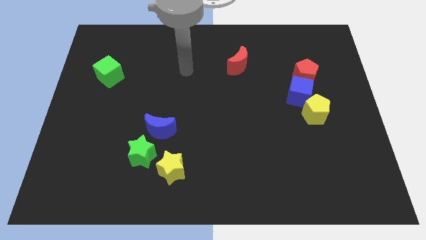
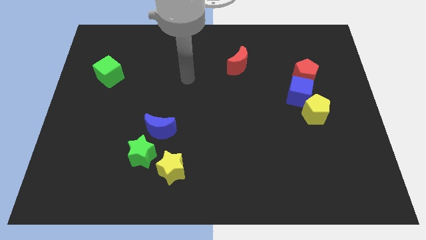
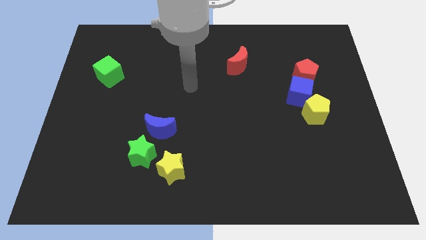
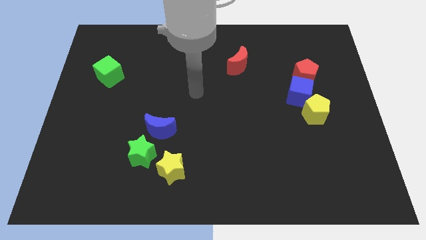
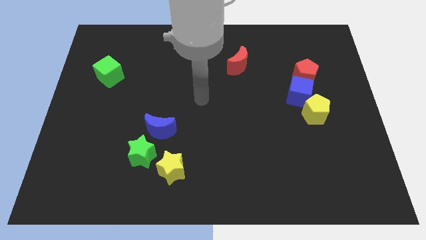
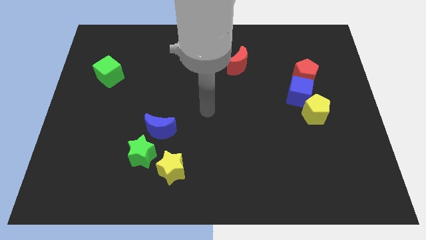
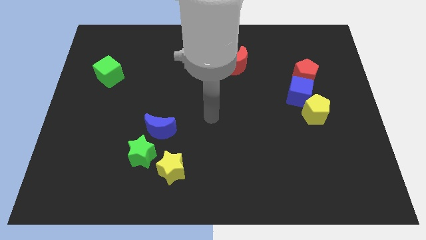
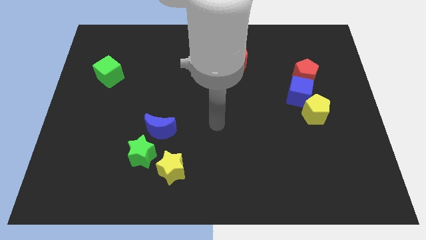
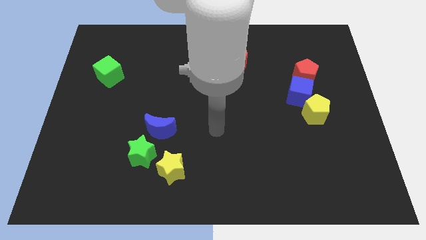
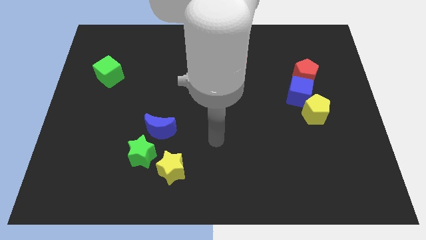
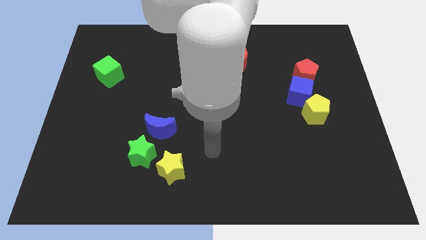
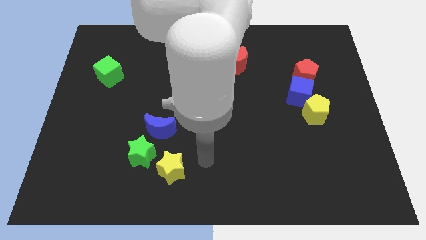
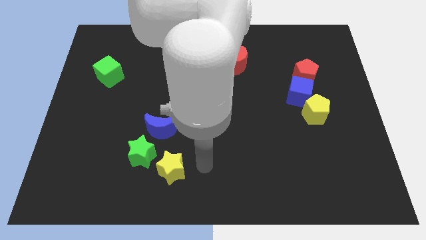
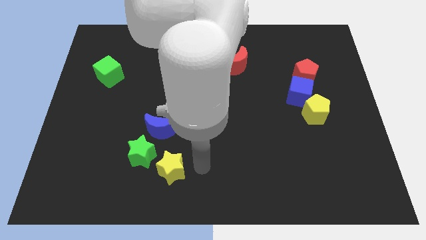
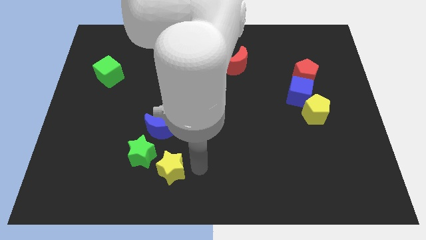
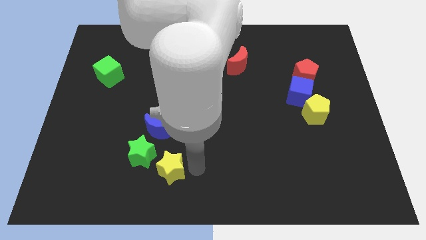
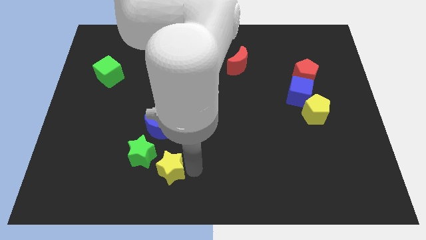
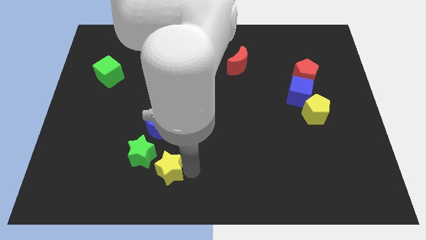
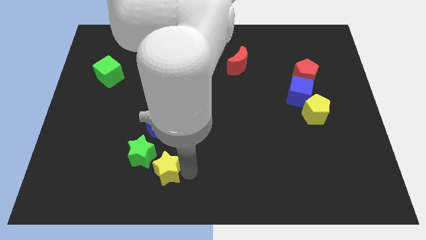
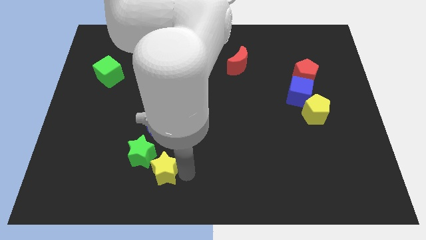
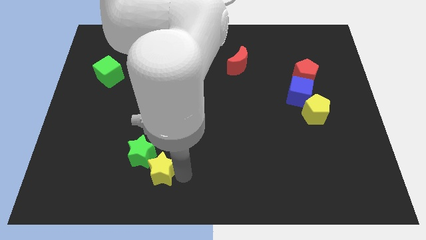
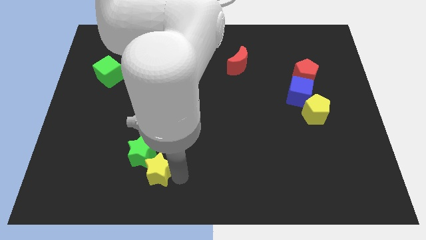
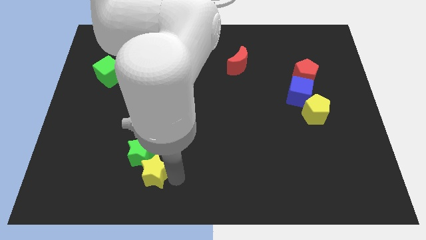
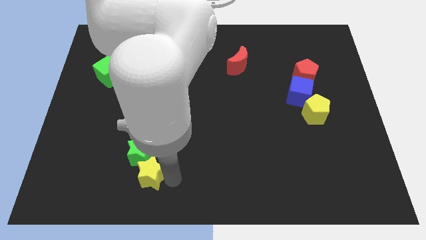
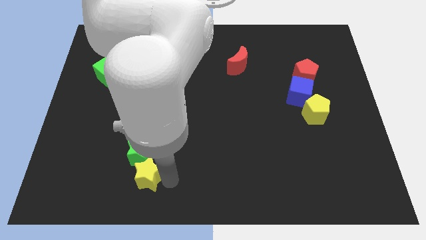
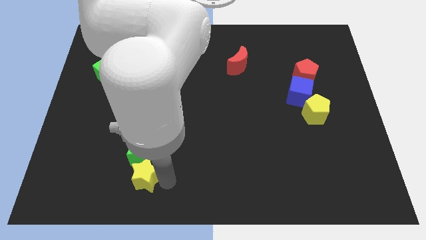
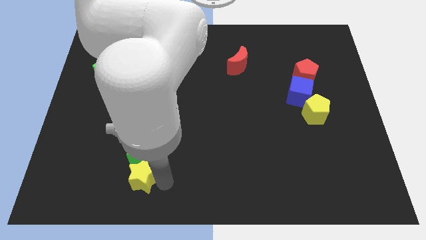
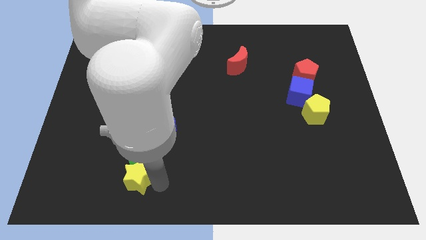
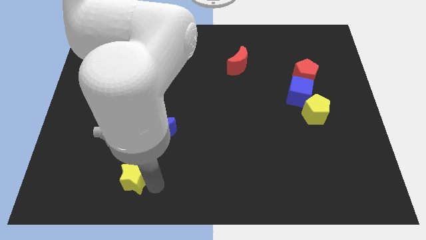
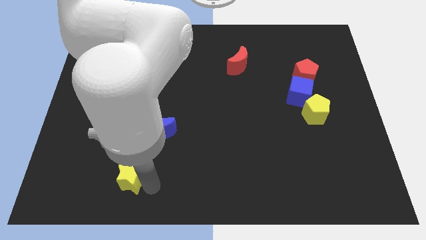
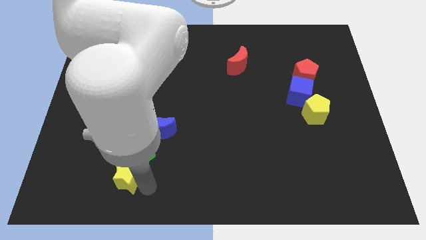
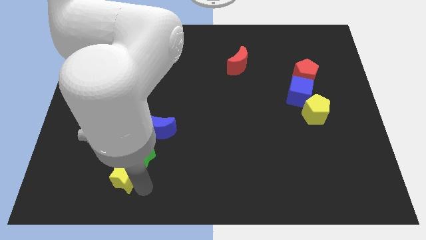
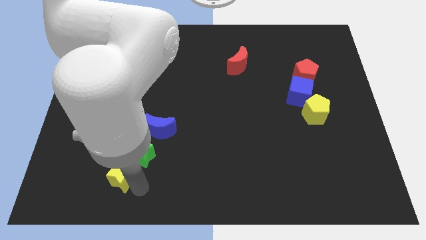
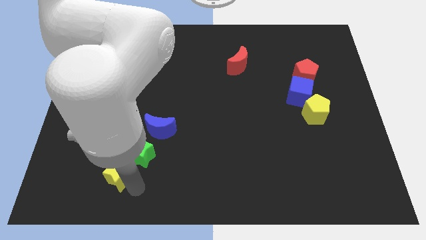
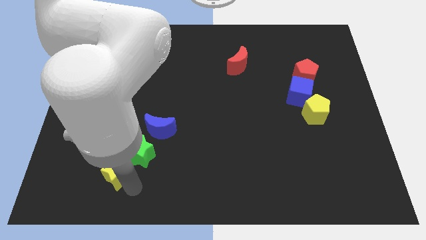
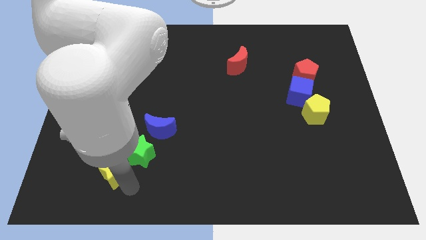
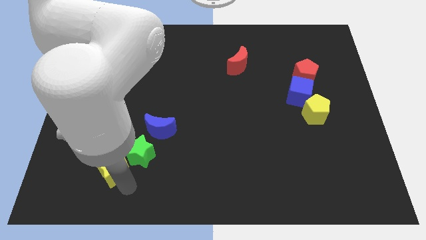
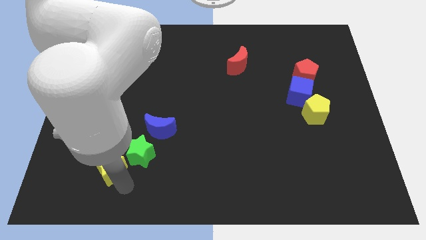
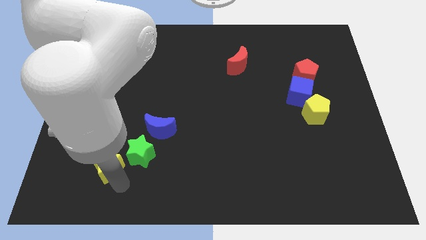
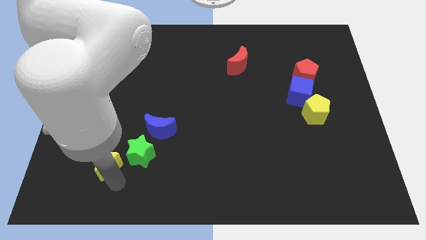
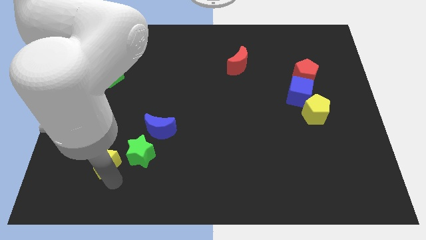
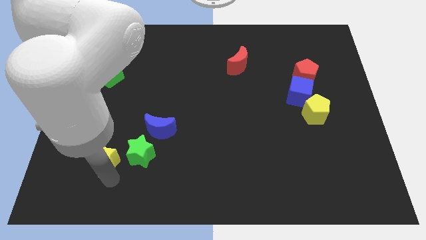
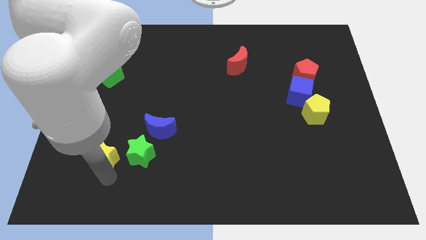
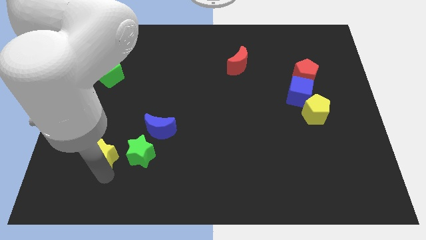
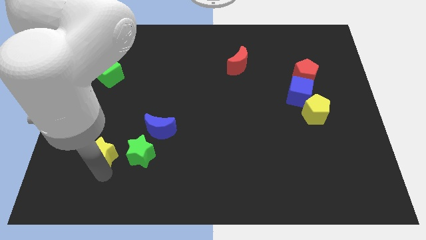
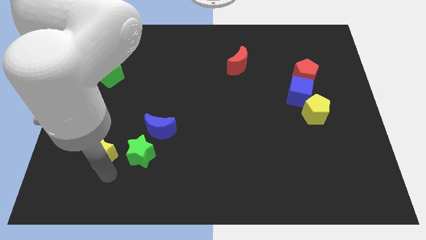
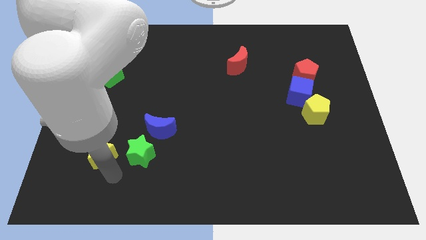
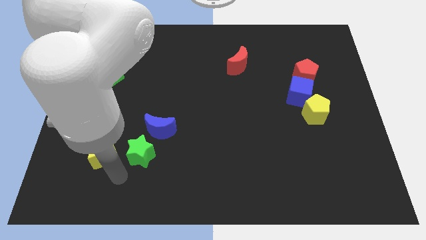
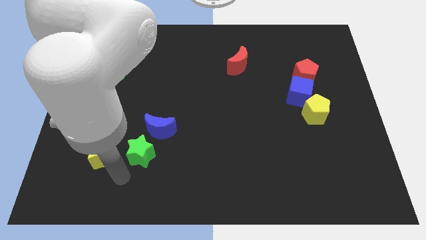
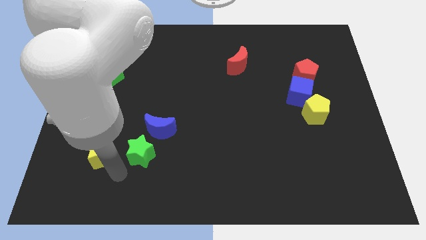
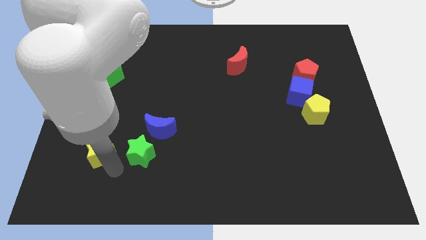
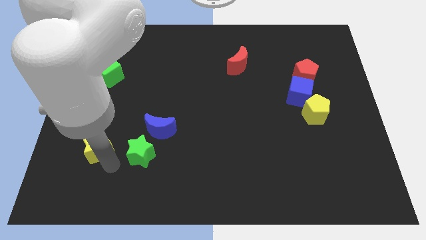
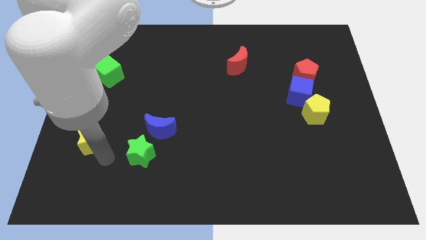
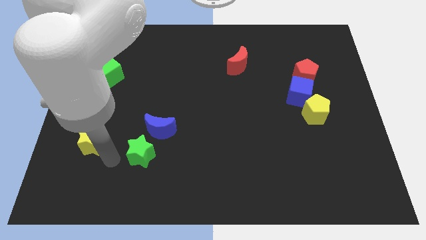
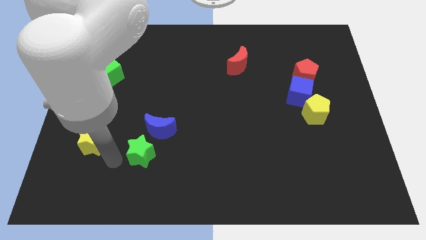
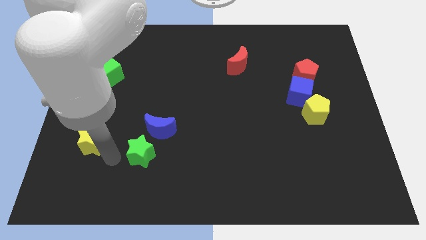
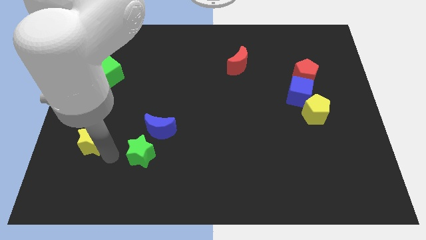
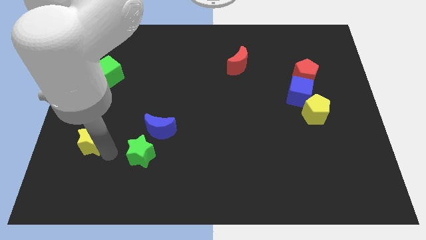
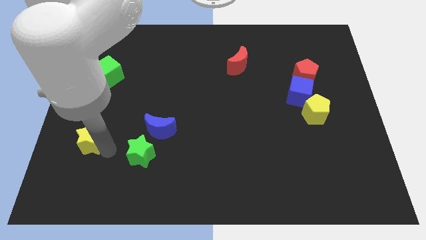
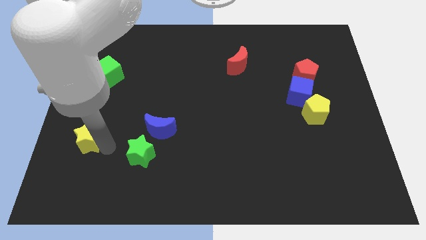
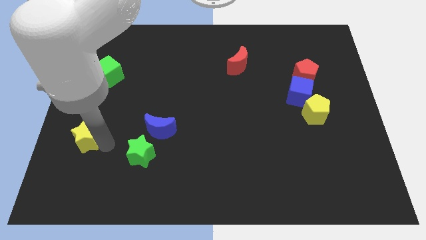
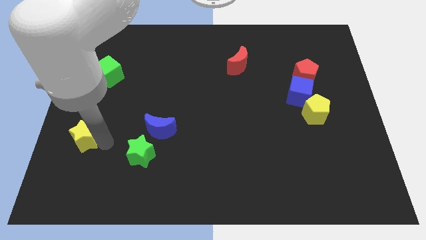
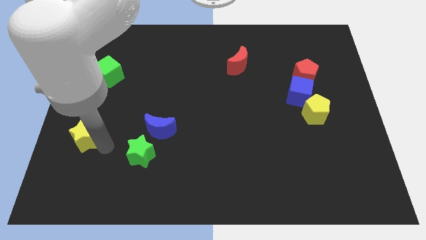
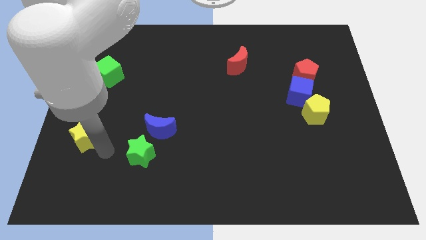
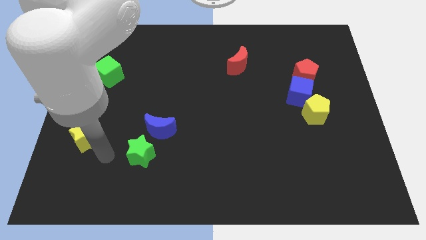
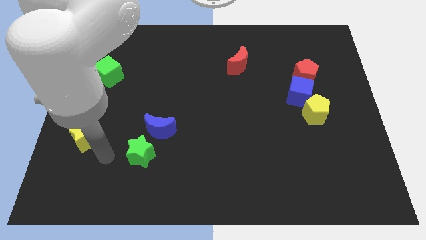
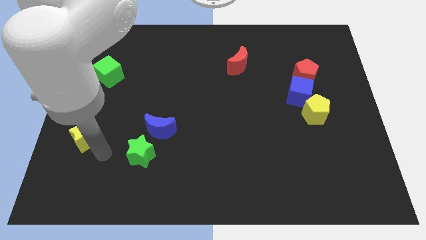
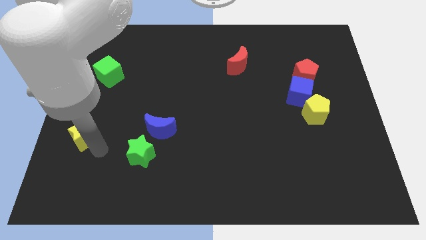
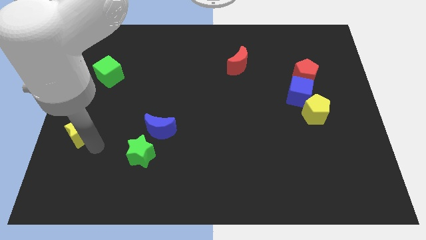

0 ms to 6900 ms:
put the yellow star to the left side
